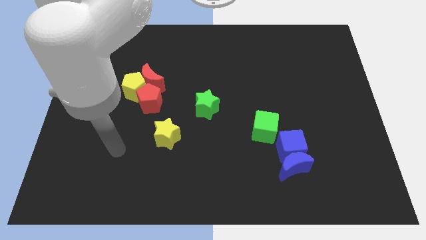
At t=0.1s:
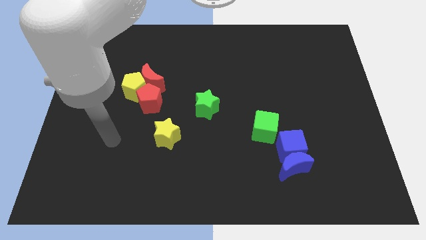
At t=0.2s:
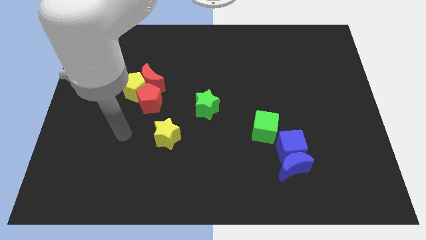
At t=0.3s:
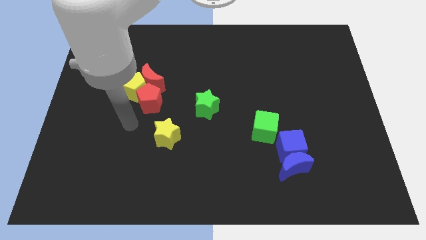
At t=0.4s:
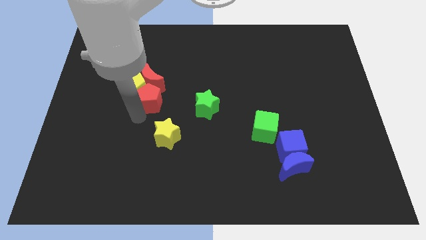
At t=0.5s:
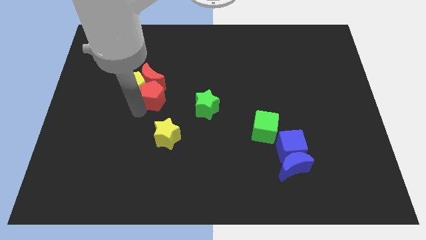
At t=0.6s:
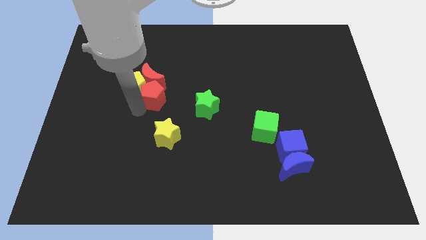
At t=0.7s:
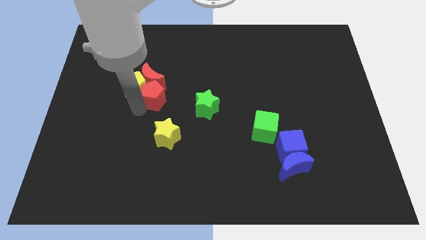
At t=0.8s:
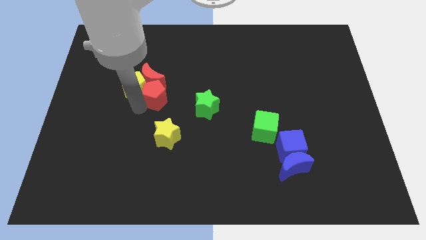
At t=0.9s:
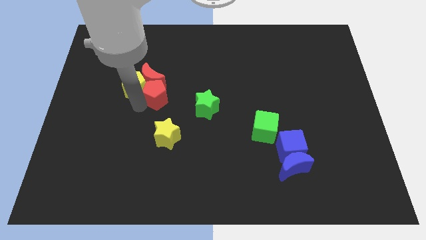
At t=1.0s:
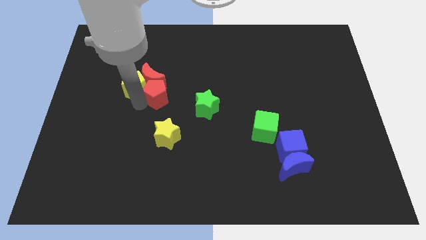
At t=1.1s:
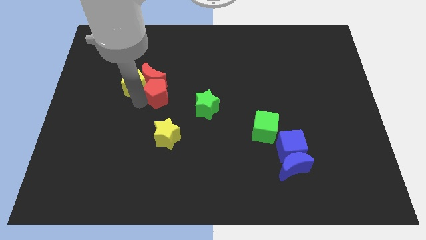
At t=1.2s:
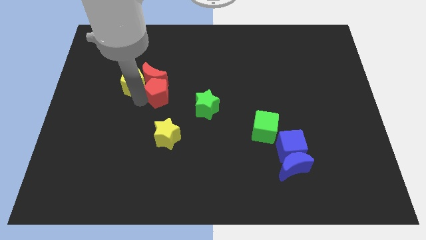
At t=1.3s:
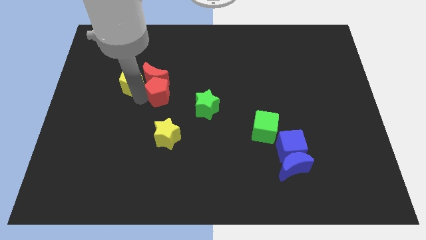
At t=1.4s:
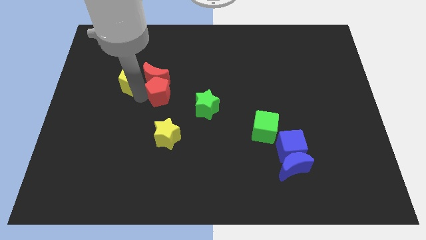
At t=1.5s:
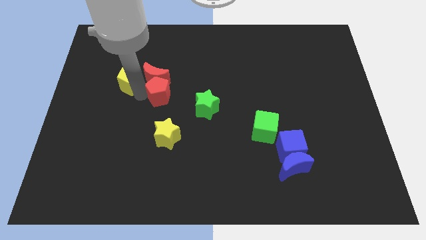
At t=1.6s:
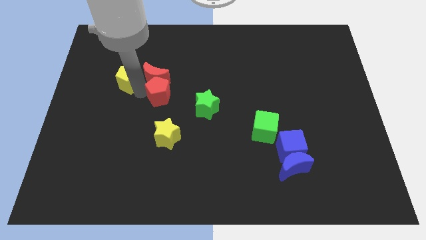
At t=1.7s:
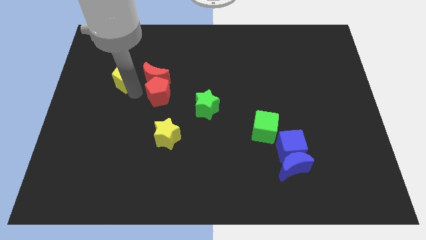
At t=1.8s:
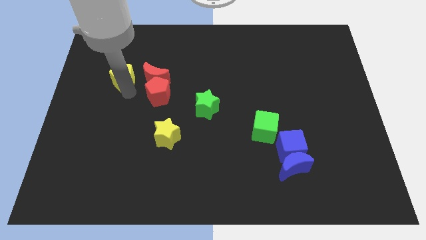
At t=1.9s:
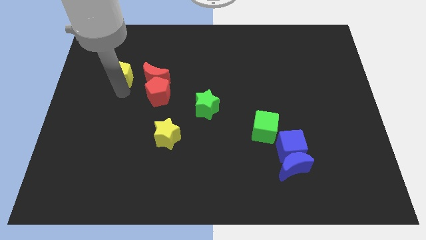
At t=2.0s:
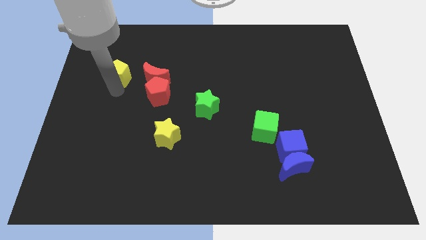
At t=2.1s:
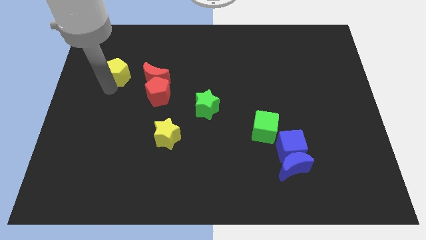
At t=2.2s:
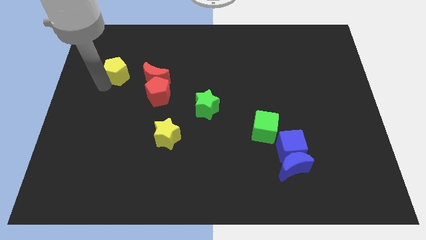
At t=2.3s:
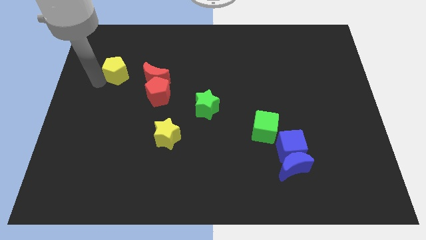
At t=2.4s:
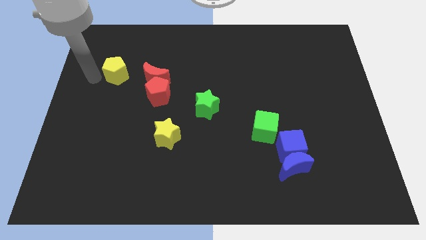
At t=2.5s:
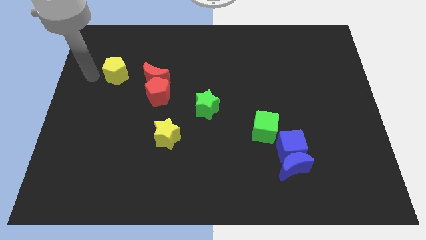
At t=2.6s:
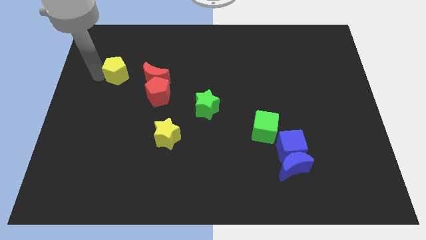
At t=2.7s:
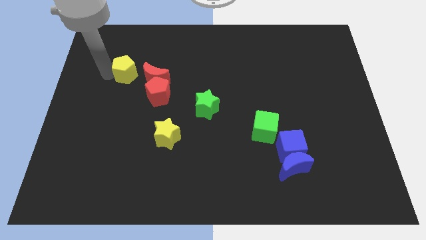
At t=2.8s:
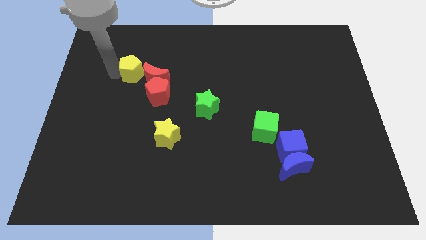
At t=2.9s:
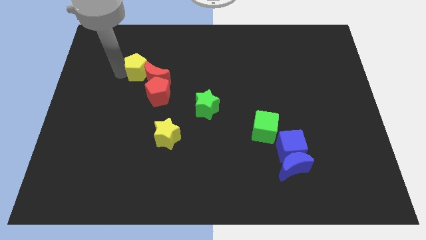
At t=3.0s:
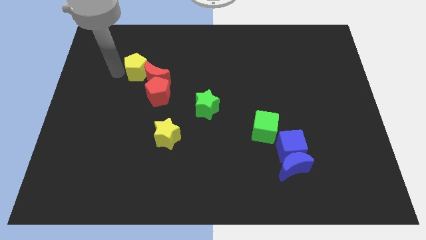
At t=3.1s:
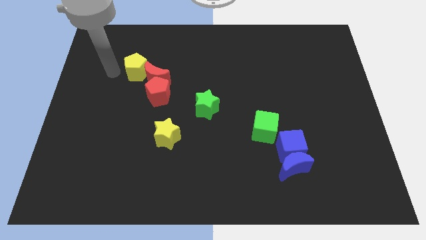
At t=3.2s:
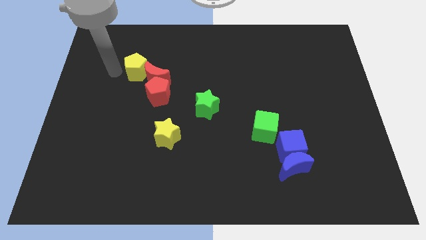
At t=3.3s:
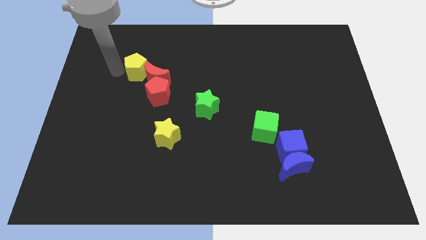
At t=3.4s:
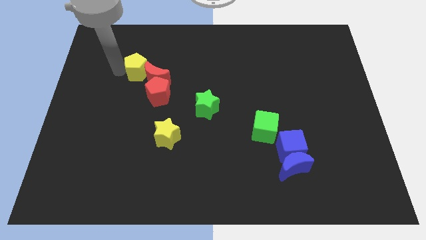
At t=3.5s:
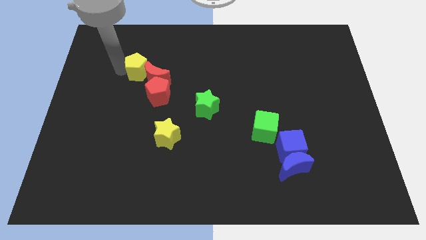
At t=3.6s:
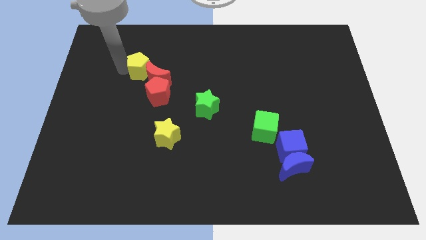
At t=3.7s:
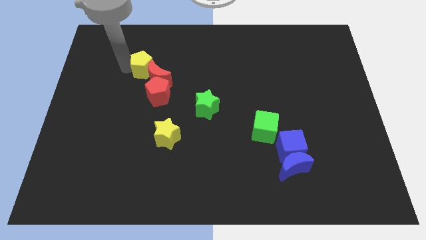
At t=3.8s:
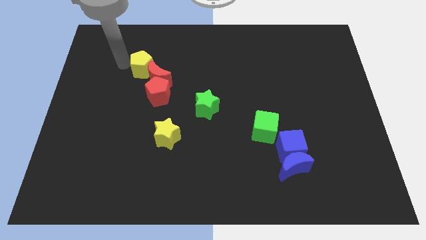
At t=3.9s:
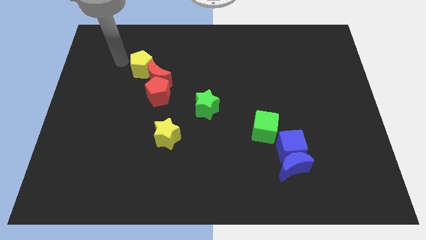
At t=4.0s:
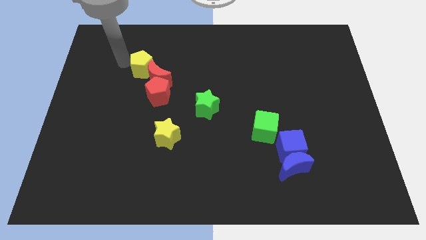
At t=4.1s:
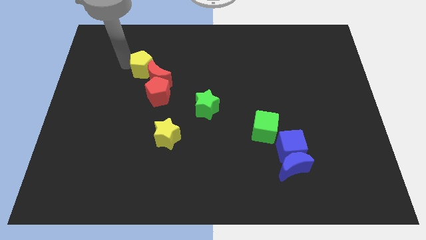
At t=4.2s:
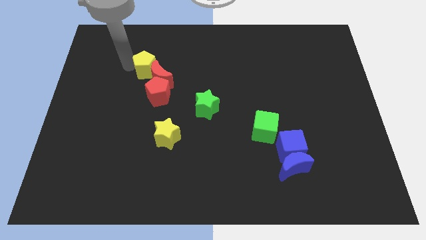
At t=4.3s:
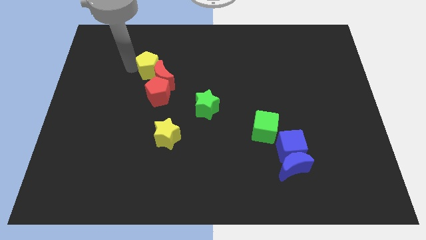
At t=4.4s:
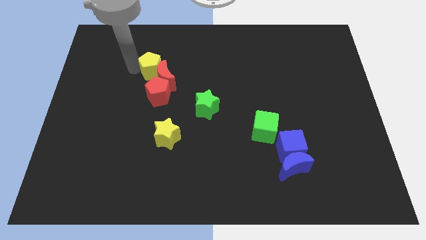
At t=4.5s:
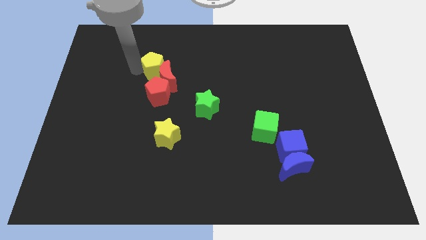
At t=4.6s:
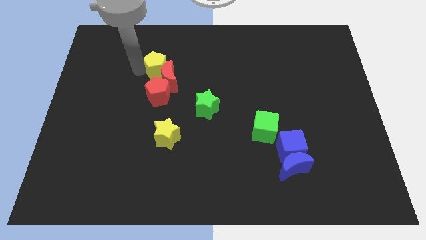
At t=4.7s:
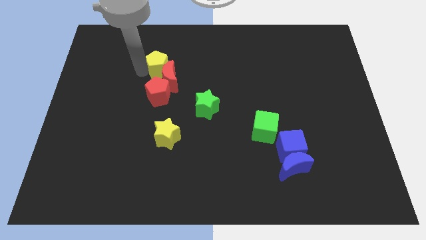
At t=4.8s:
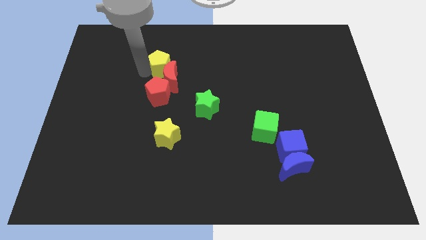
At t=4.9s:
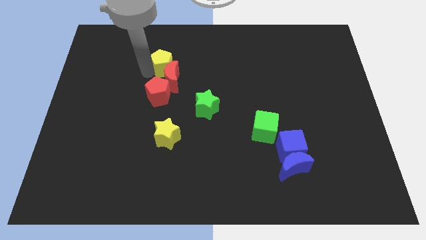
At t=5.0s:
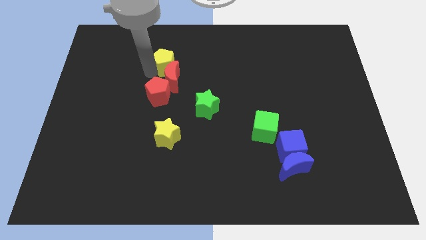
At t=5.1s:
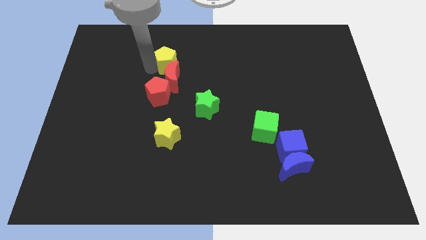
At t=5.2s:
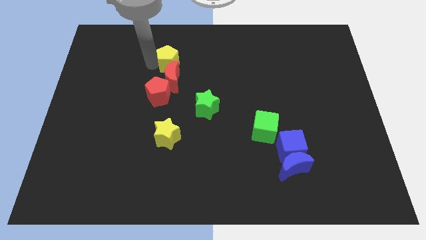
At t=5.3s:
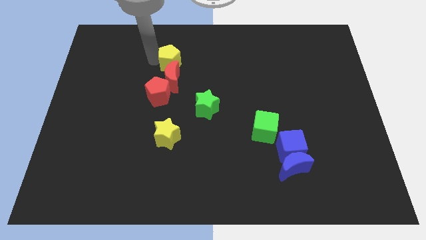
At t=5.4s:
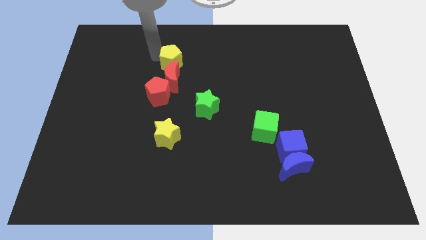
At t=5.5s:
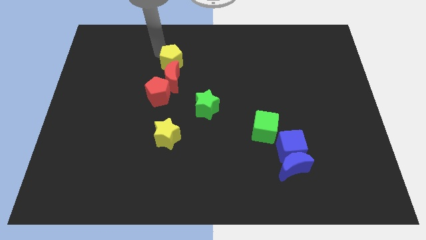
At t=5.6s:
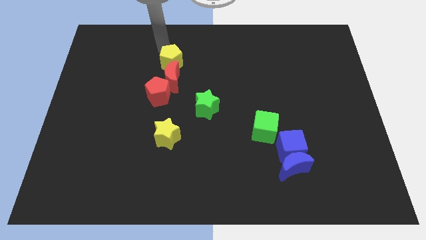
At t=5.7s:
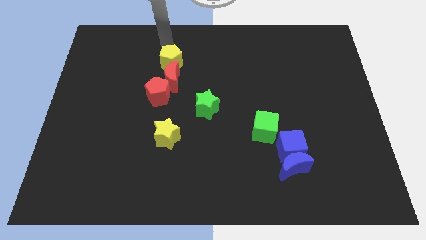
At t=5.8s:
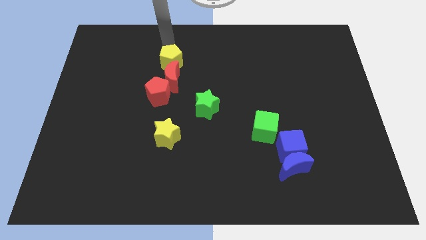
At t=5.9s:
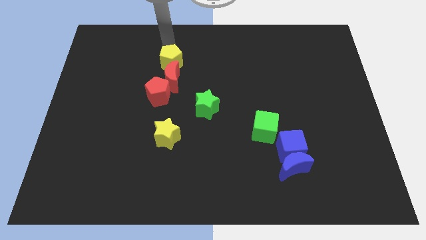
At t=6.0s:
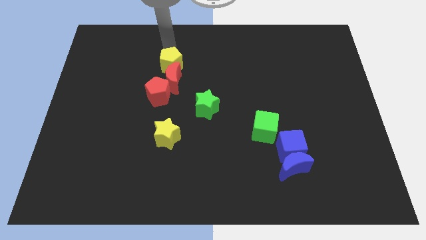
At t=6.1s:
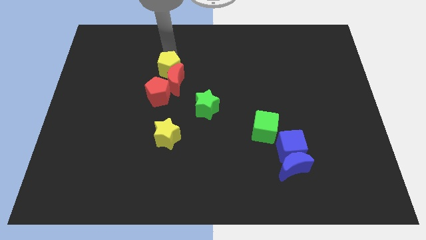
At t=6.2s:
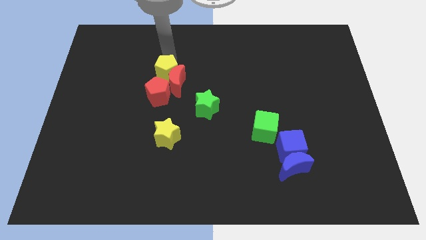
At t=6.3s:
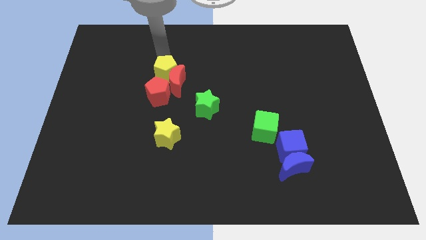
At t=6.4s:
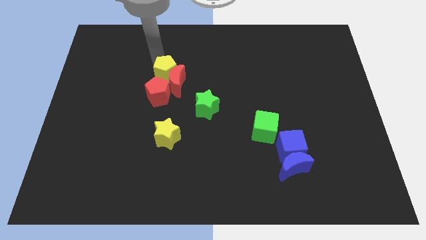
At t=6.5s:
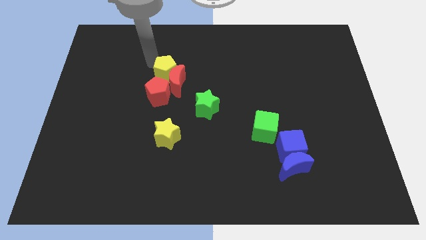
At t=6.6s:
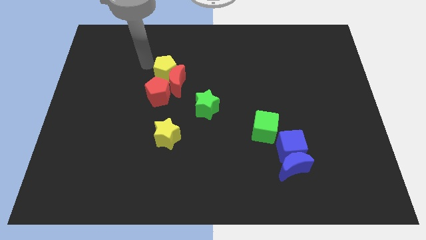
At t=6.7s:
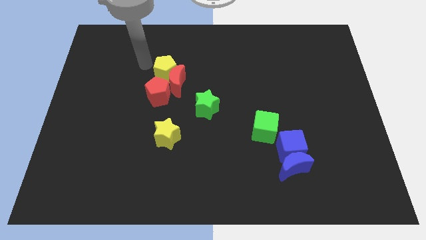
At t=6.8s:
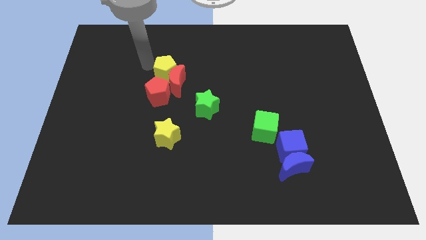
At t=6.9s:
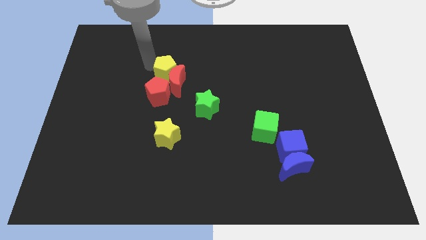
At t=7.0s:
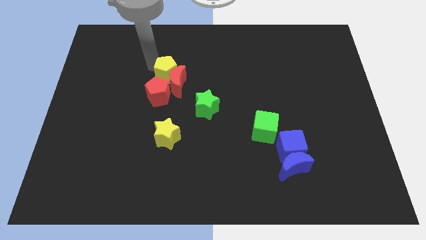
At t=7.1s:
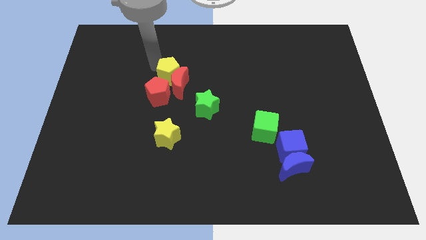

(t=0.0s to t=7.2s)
slide the yellow pentagon slightly right

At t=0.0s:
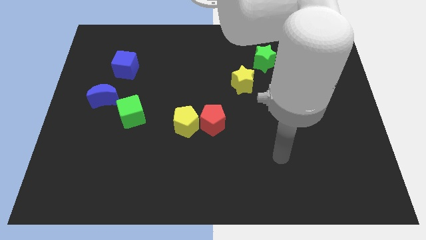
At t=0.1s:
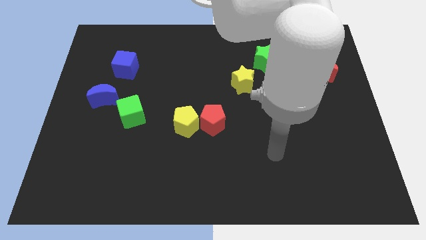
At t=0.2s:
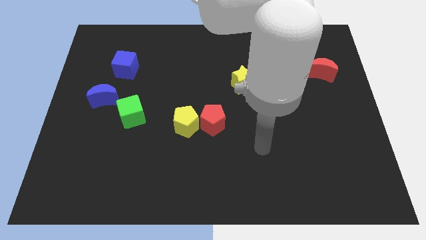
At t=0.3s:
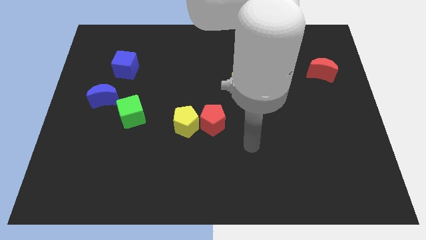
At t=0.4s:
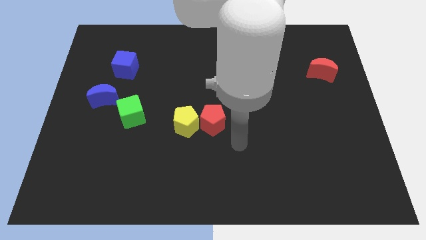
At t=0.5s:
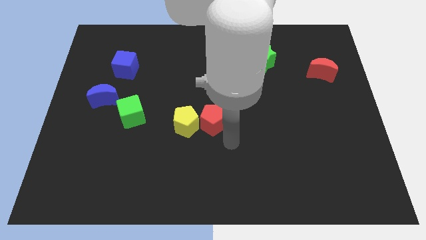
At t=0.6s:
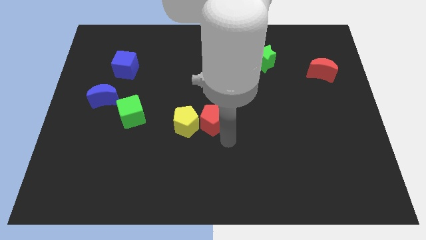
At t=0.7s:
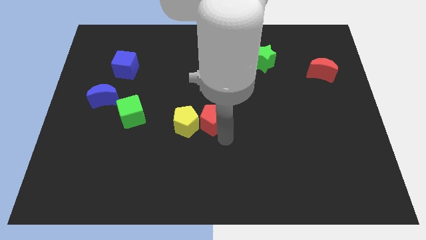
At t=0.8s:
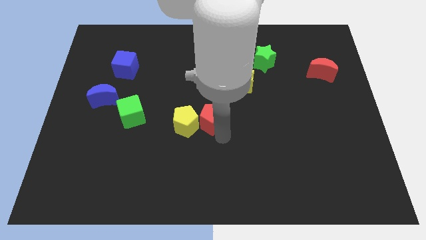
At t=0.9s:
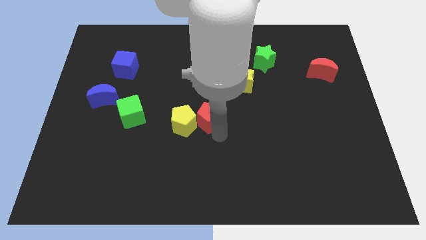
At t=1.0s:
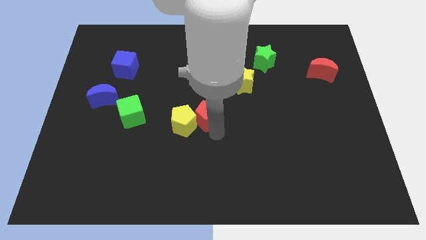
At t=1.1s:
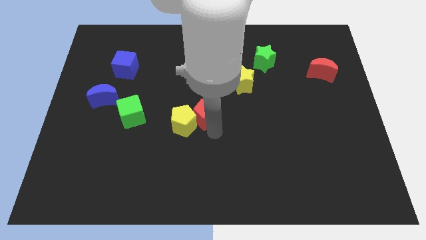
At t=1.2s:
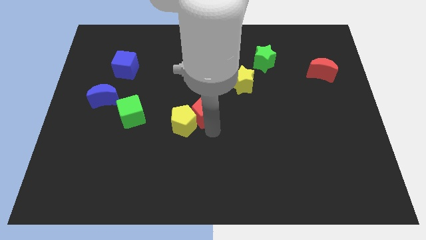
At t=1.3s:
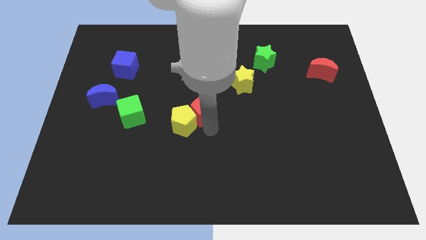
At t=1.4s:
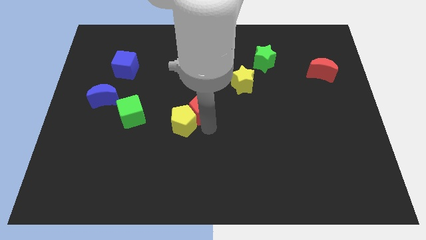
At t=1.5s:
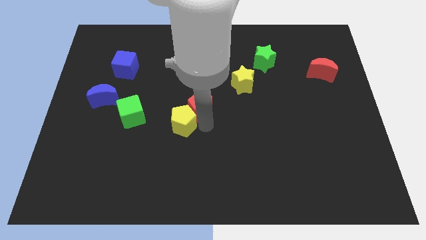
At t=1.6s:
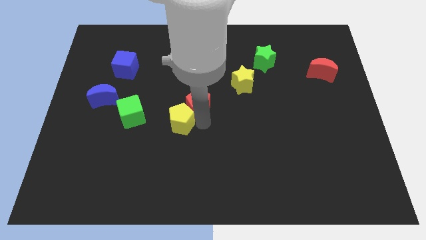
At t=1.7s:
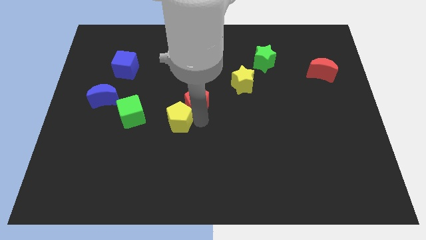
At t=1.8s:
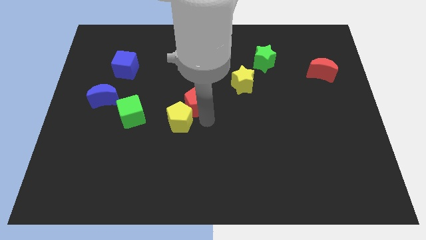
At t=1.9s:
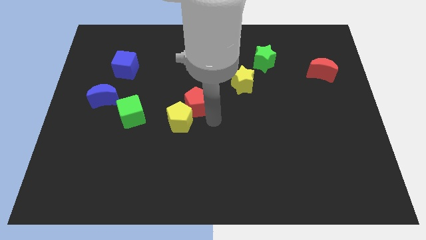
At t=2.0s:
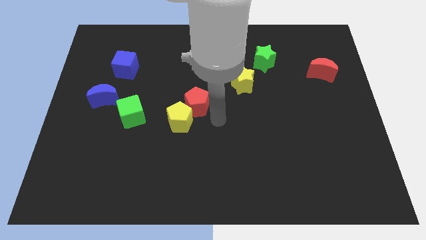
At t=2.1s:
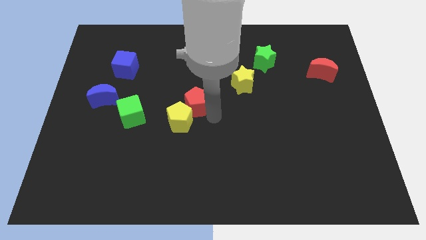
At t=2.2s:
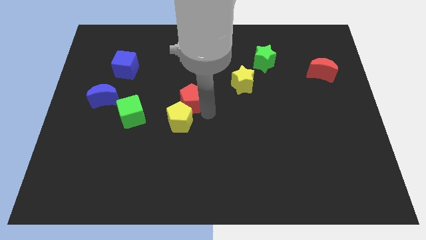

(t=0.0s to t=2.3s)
slightly push the red pentagon upwards and left
